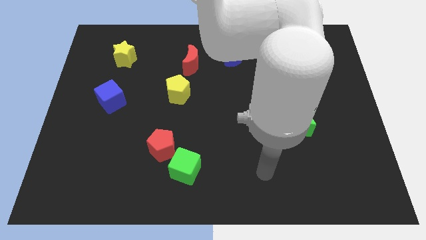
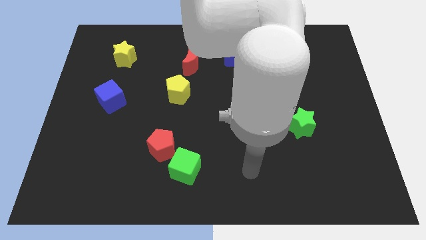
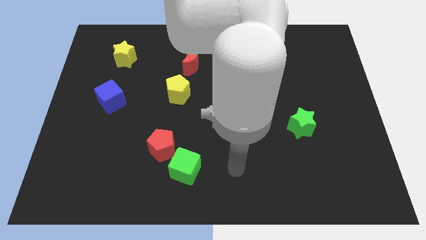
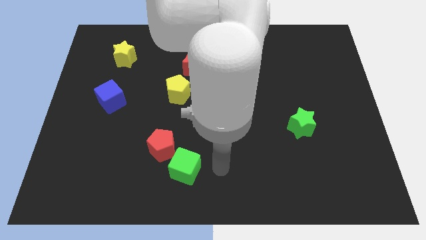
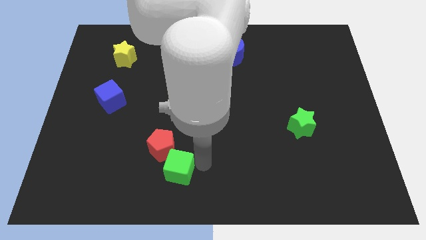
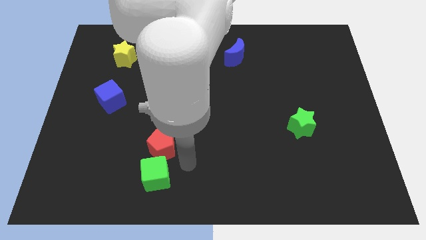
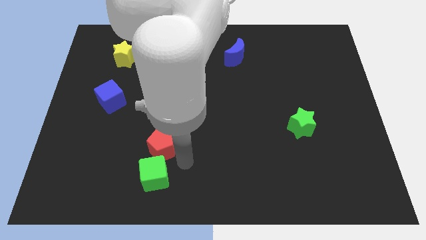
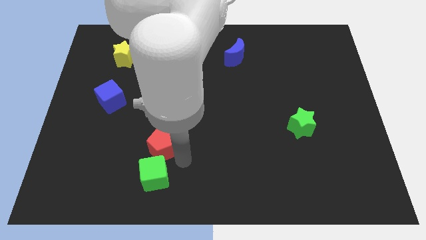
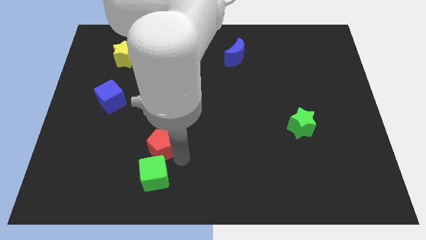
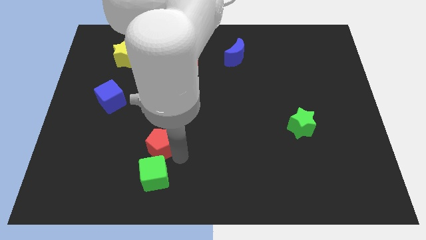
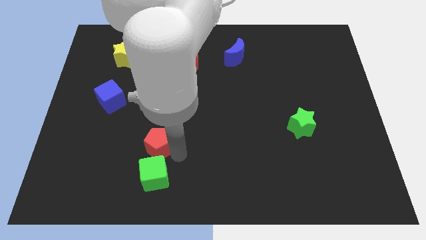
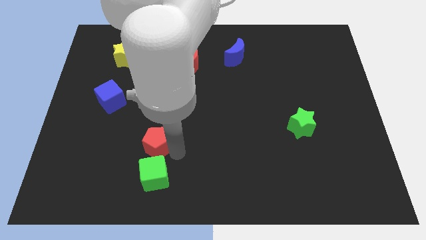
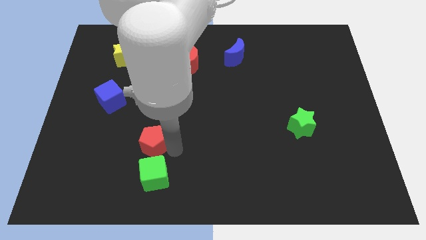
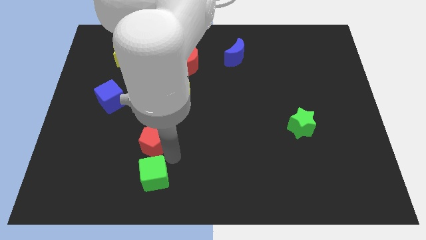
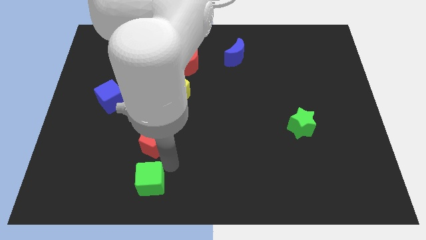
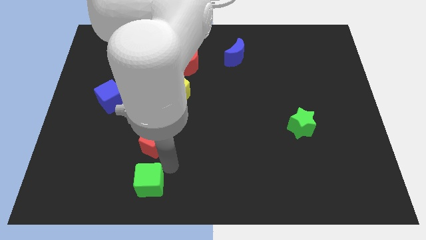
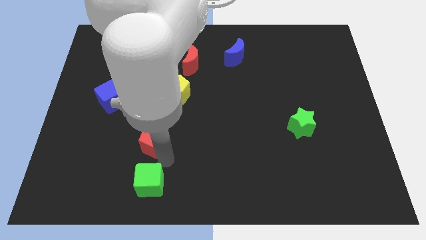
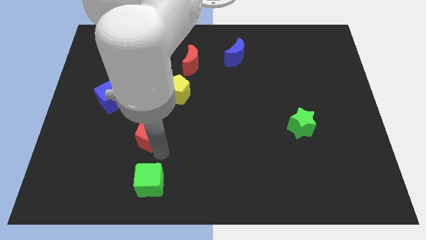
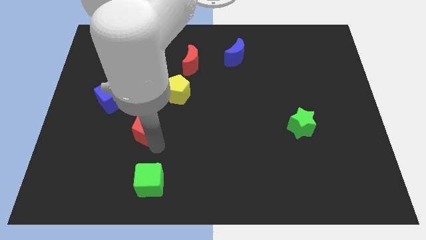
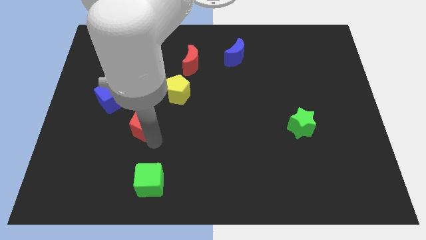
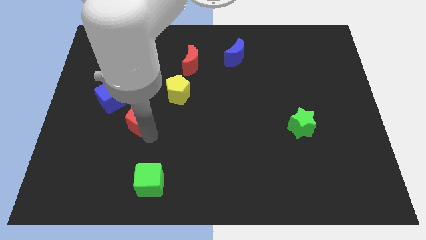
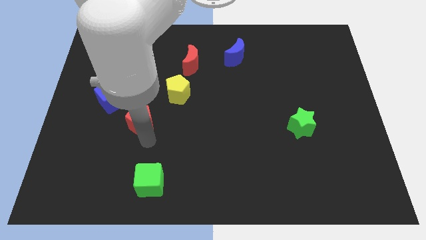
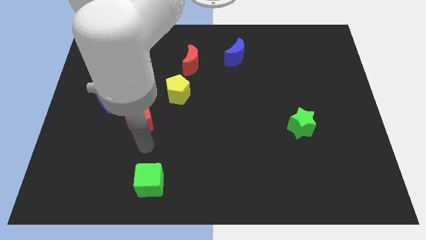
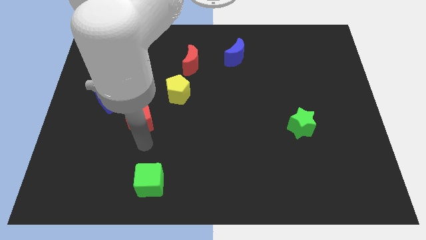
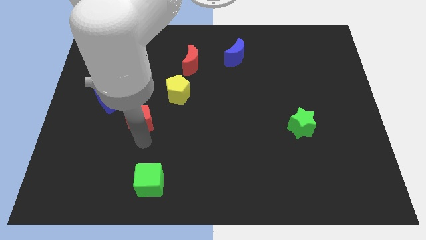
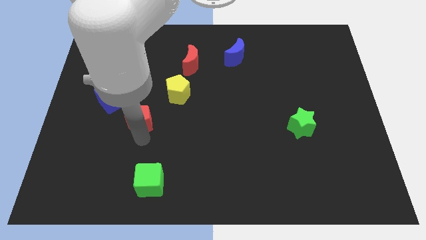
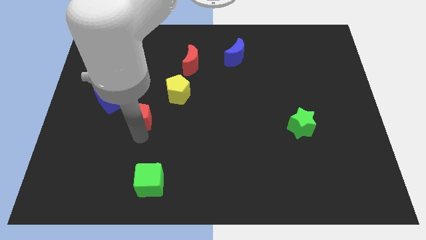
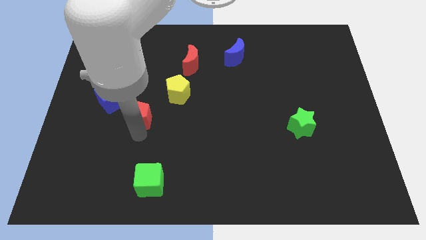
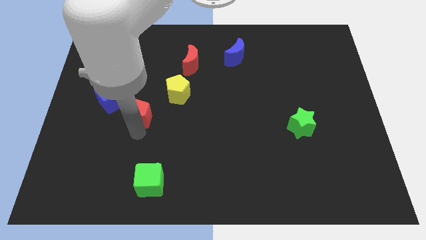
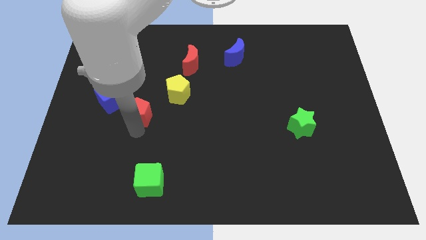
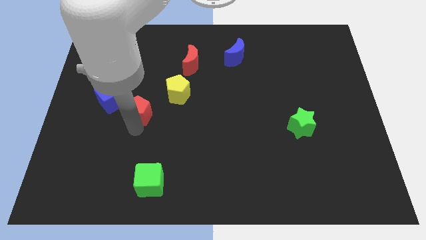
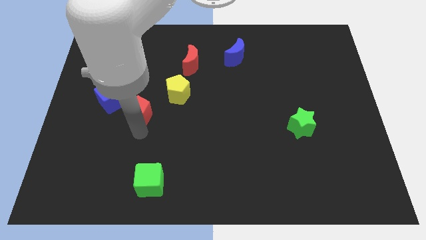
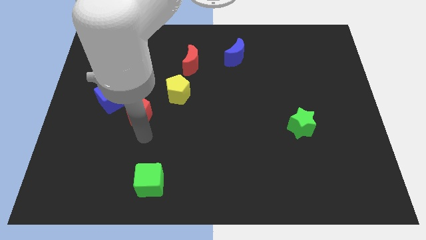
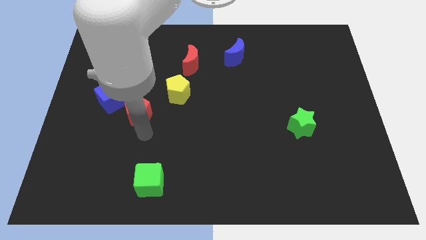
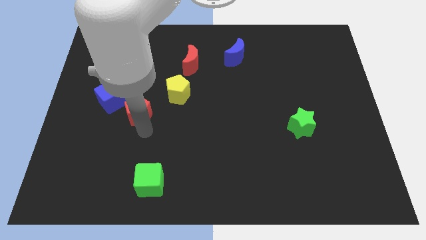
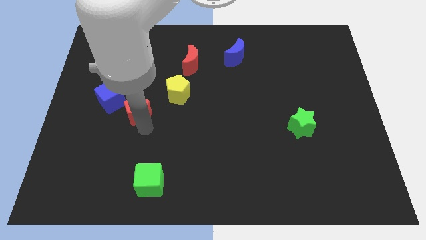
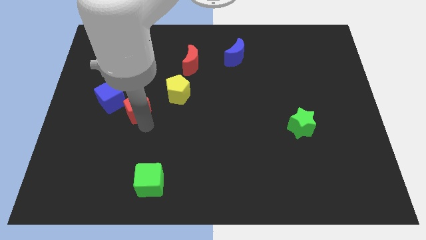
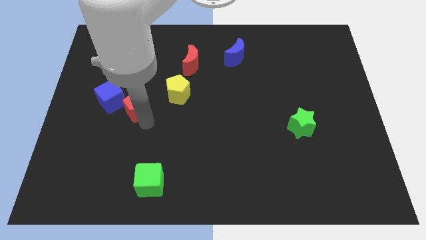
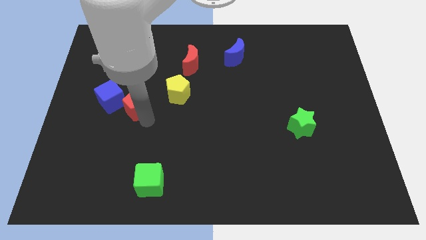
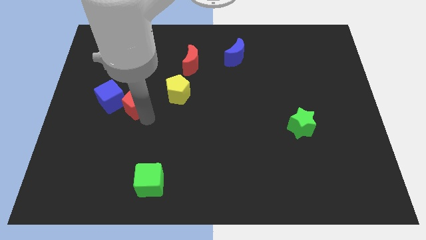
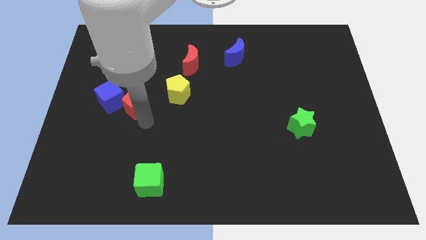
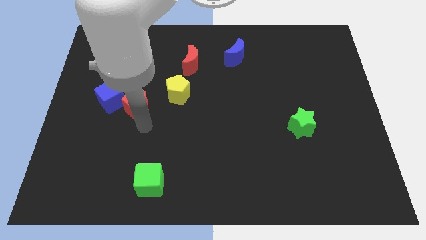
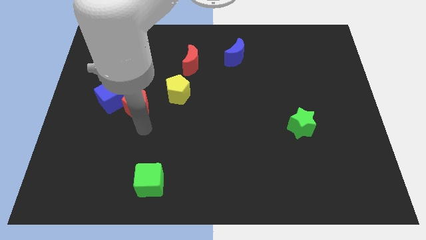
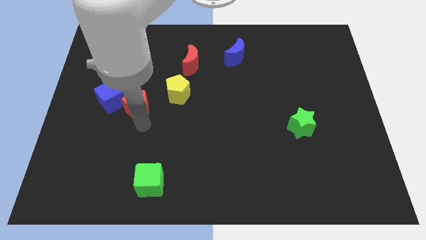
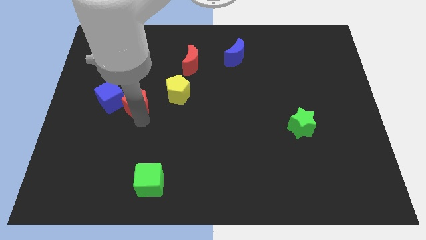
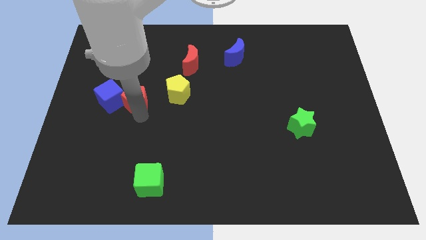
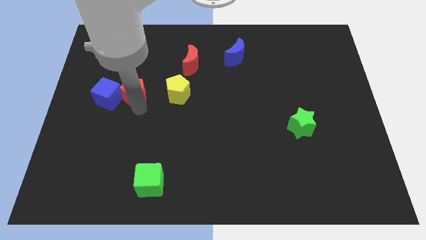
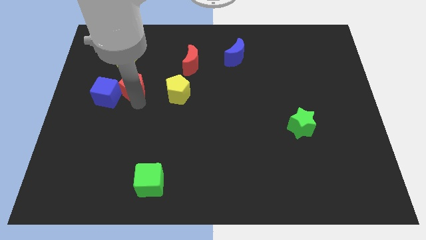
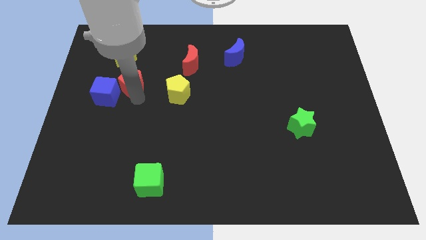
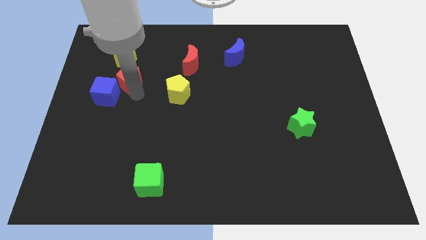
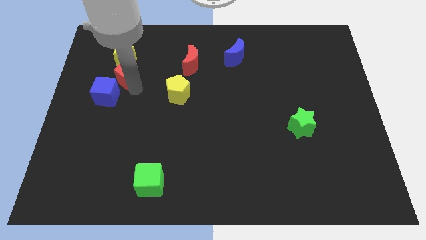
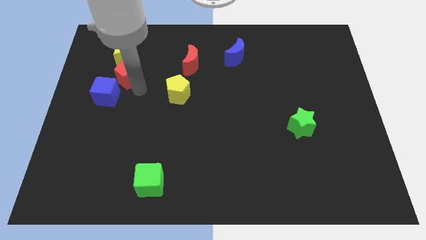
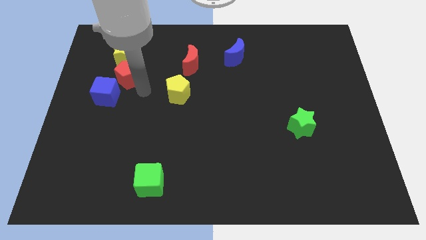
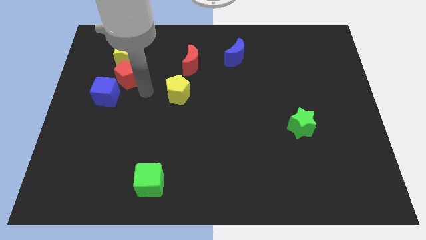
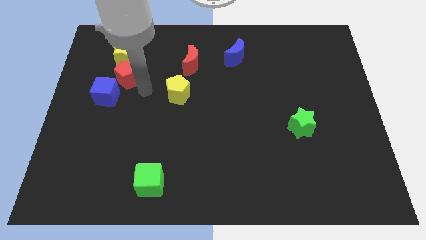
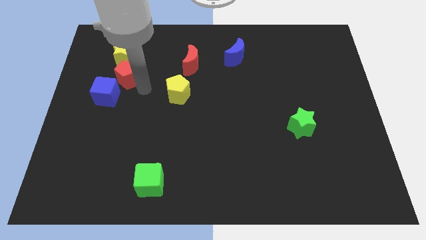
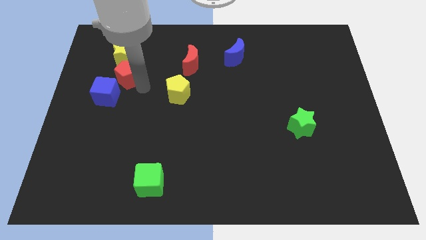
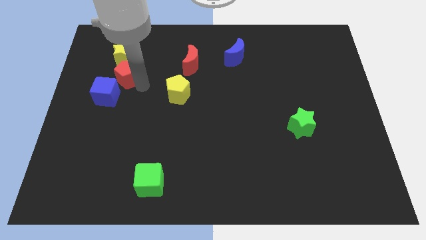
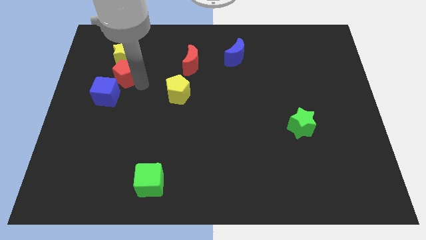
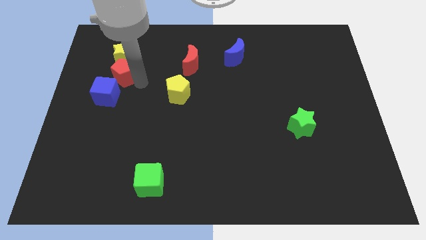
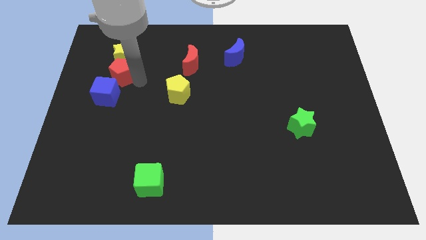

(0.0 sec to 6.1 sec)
put the red pentagon next to the yellow star

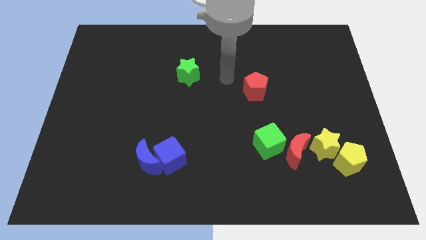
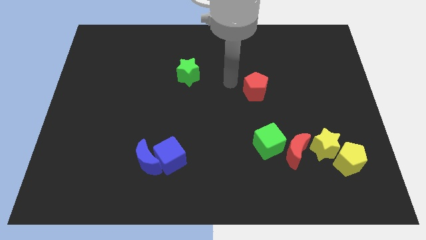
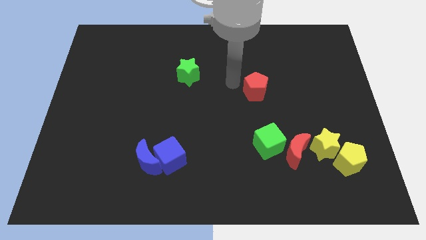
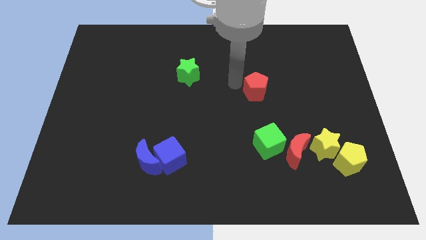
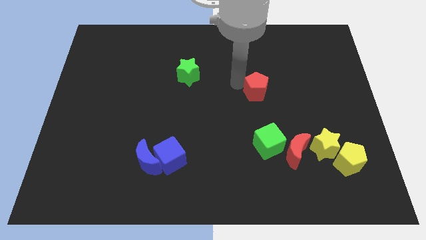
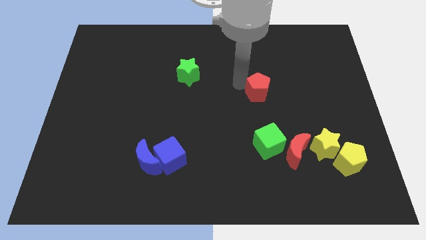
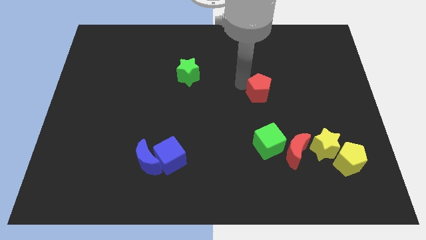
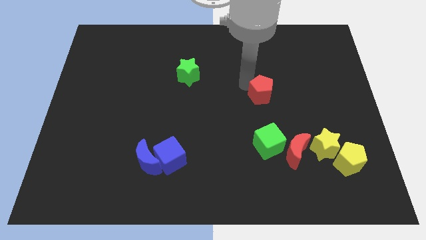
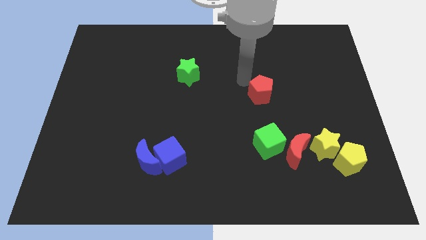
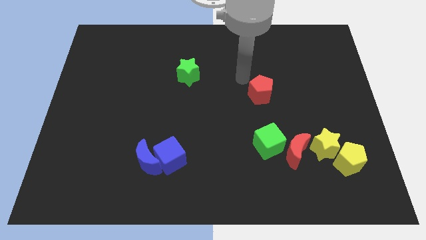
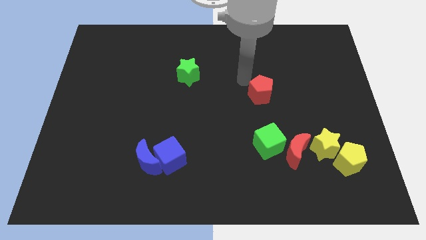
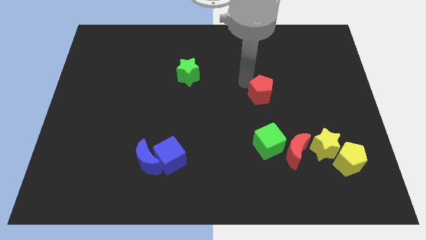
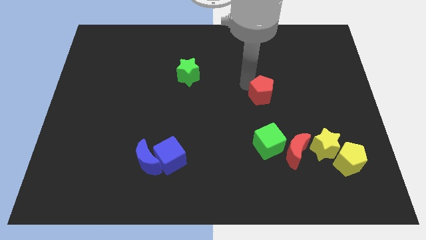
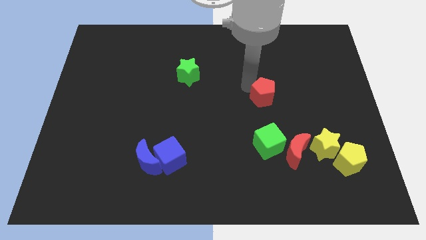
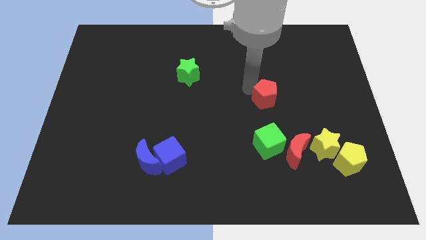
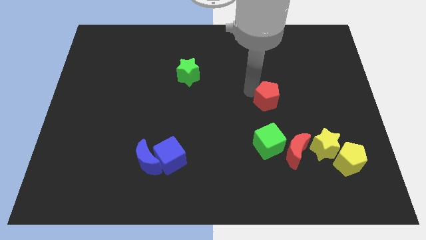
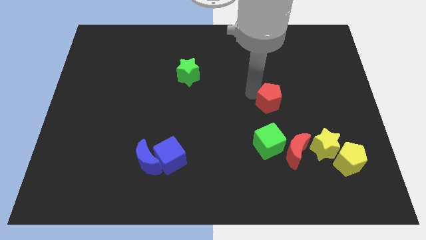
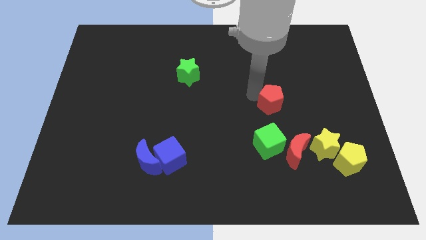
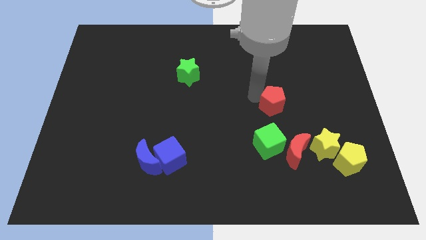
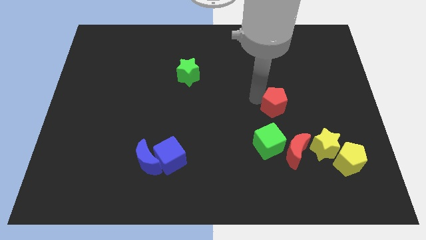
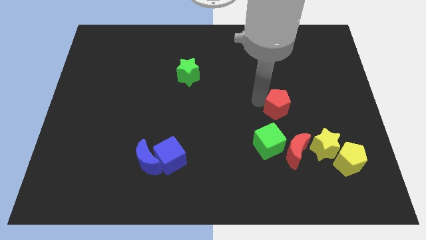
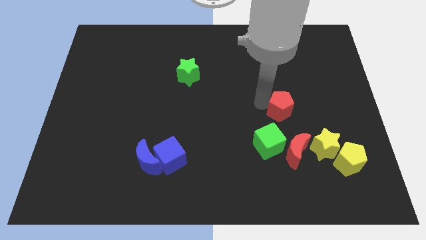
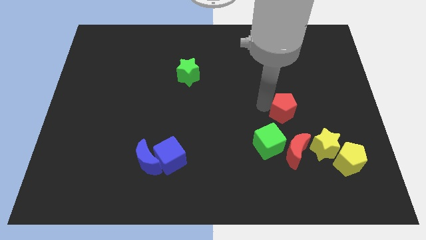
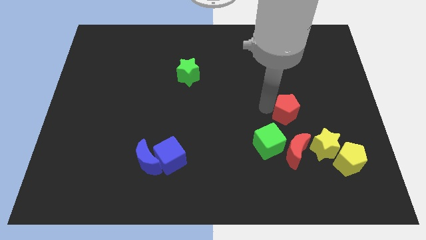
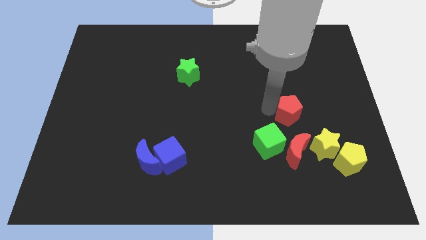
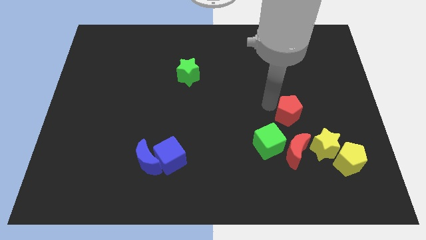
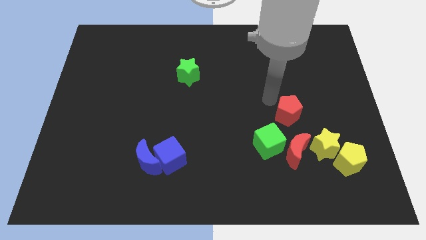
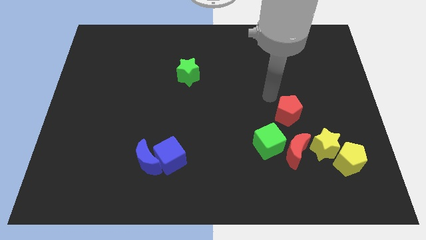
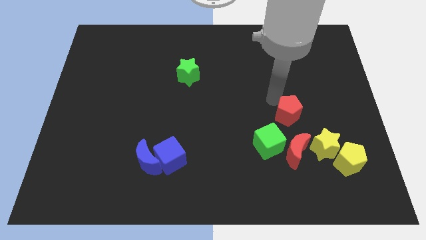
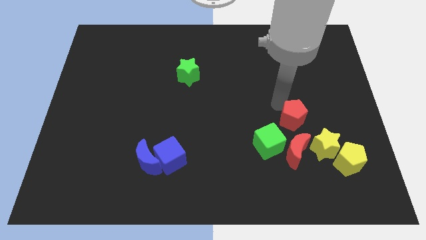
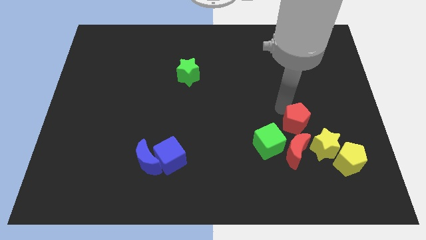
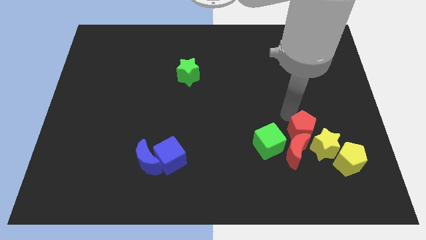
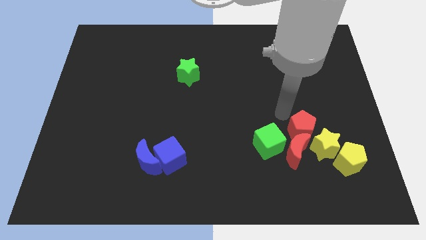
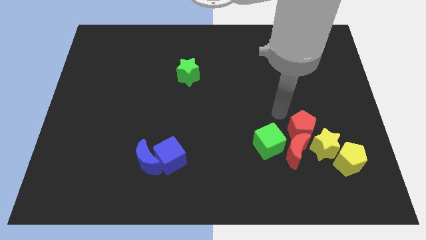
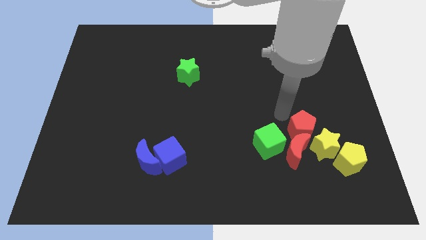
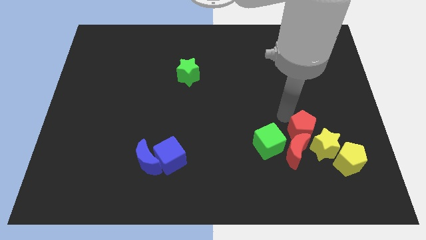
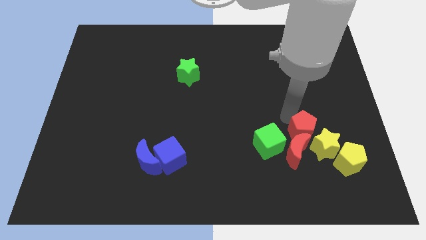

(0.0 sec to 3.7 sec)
move the red pentagon close to the yellow star
